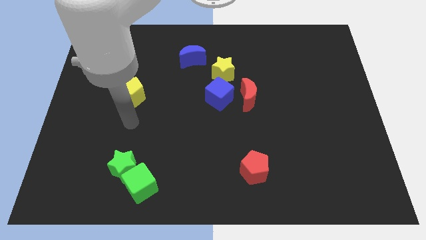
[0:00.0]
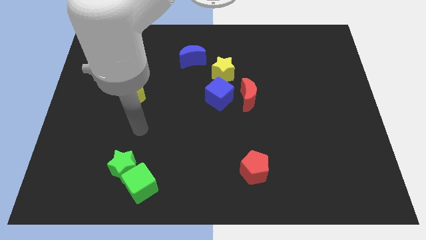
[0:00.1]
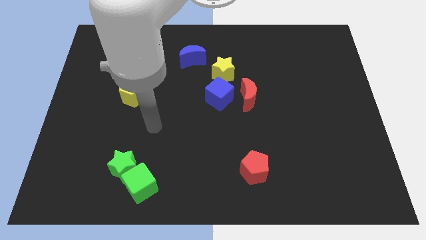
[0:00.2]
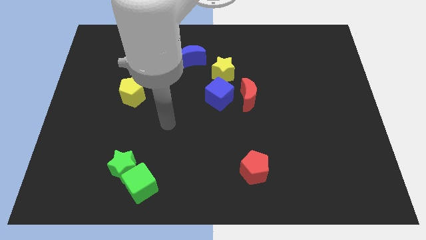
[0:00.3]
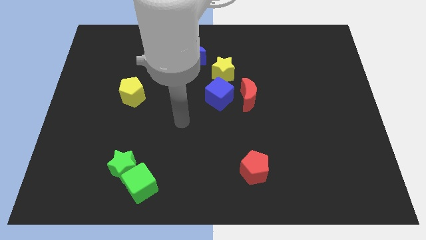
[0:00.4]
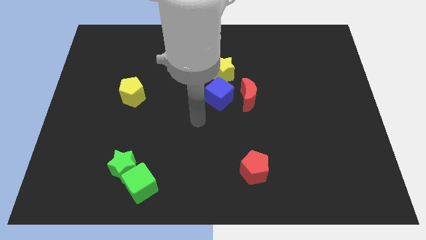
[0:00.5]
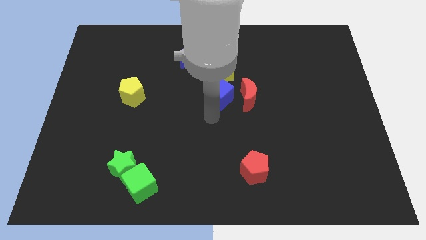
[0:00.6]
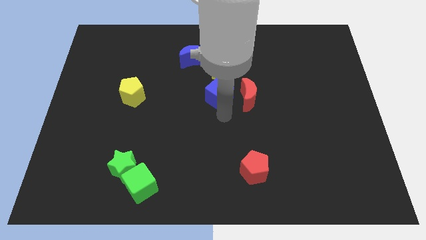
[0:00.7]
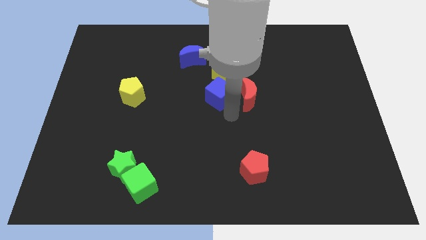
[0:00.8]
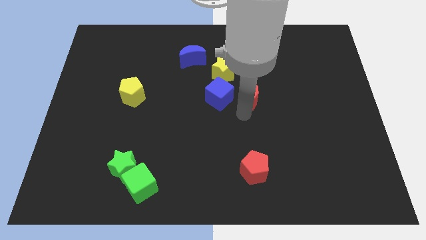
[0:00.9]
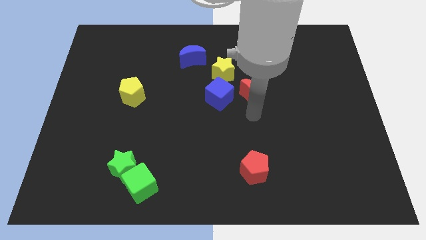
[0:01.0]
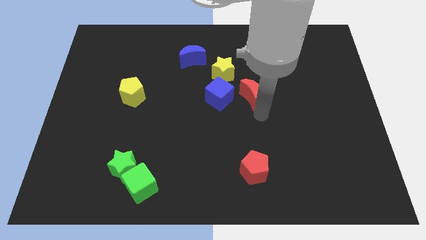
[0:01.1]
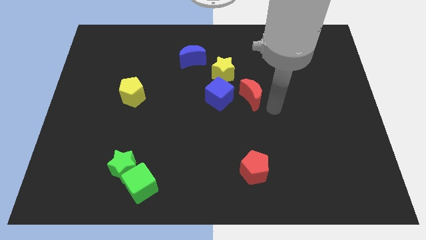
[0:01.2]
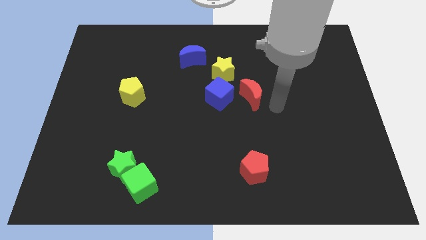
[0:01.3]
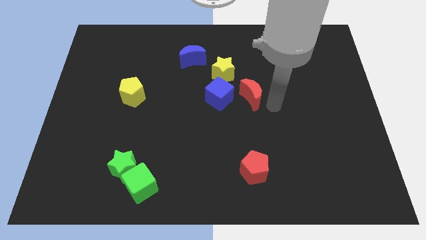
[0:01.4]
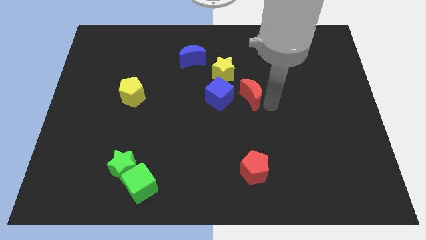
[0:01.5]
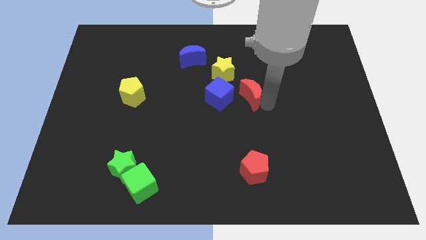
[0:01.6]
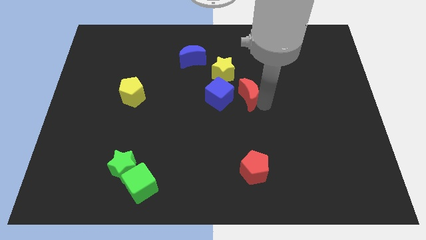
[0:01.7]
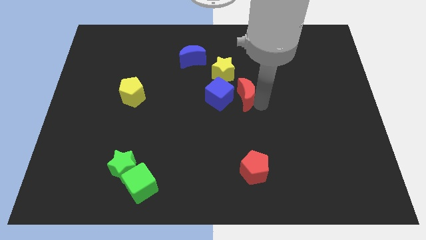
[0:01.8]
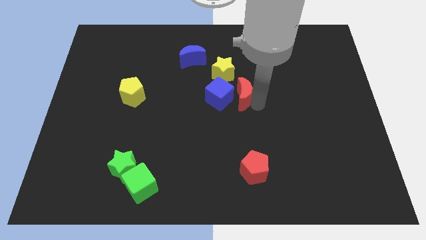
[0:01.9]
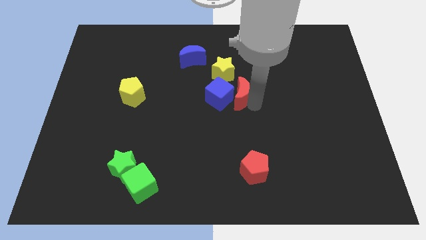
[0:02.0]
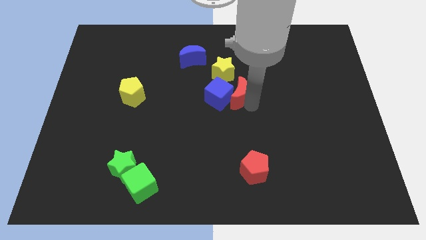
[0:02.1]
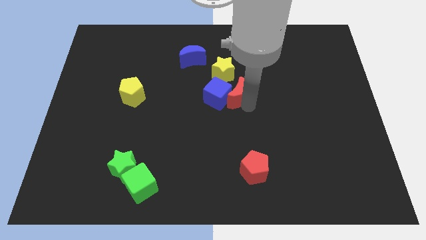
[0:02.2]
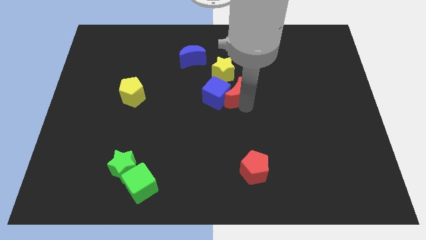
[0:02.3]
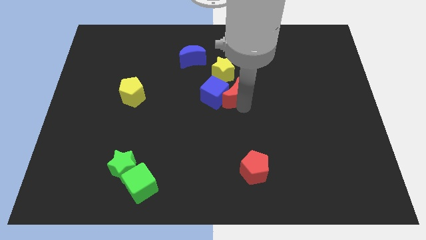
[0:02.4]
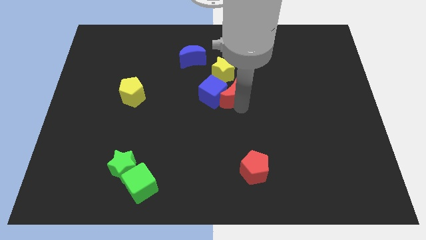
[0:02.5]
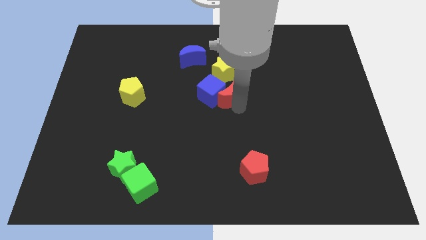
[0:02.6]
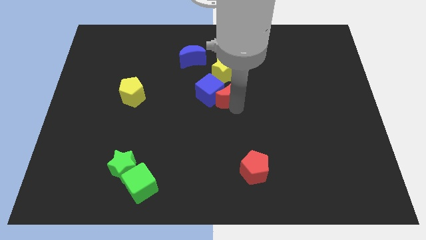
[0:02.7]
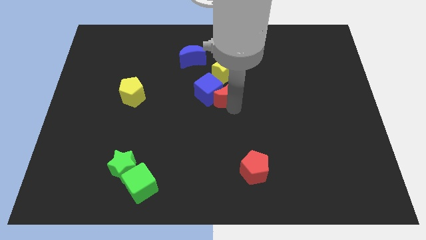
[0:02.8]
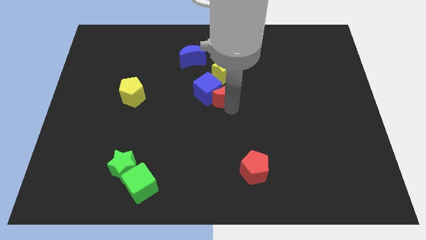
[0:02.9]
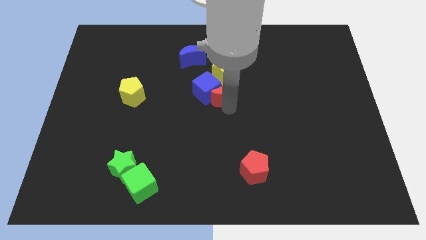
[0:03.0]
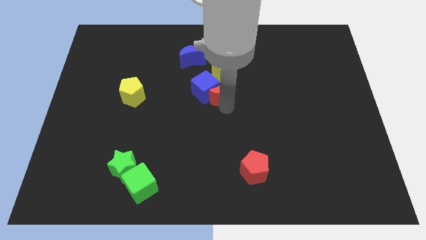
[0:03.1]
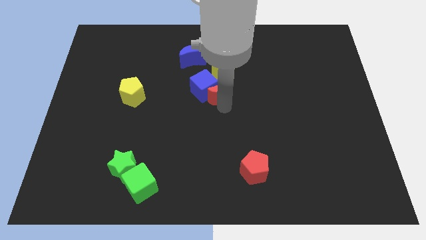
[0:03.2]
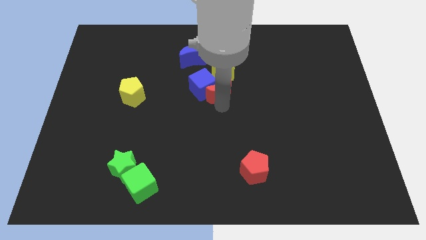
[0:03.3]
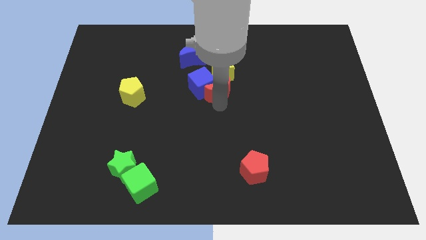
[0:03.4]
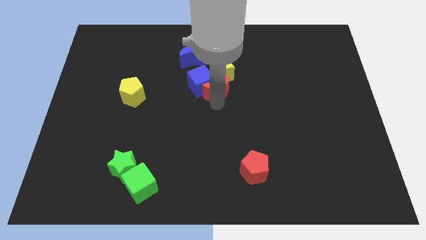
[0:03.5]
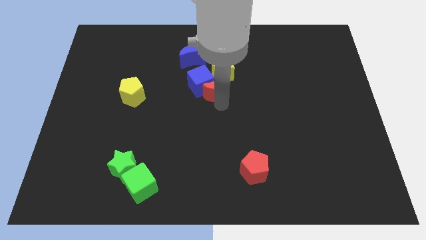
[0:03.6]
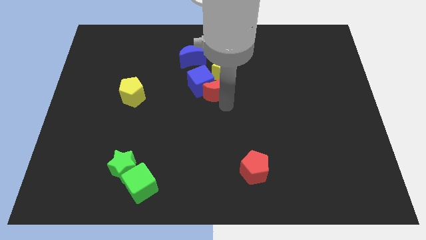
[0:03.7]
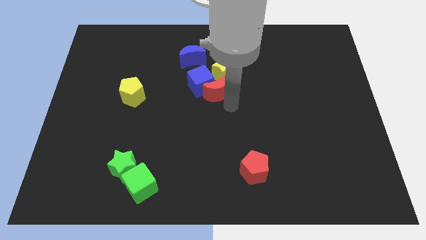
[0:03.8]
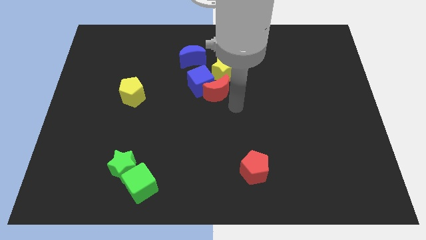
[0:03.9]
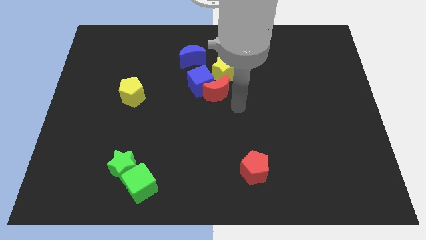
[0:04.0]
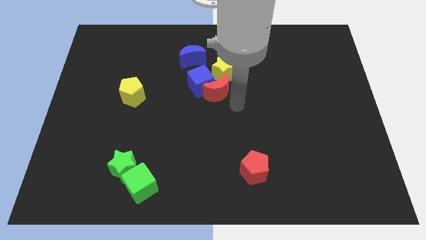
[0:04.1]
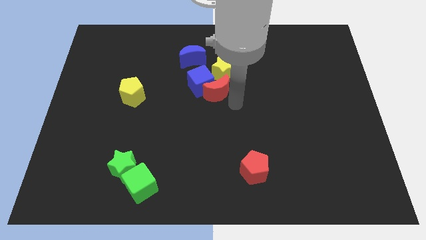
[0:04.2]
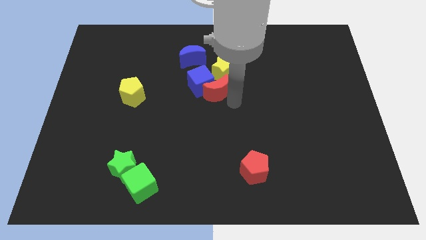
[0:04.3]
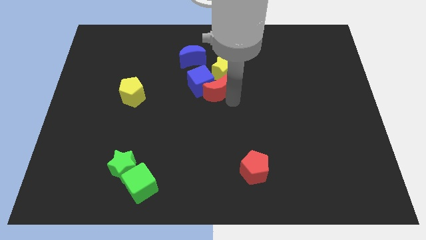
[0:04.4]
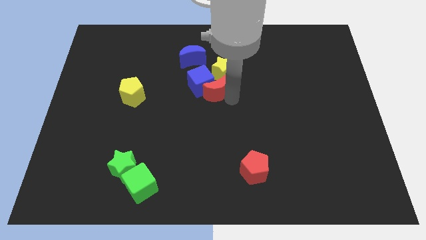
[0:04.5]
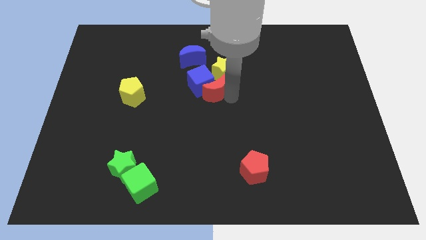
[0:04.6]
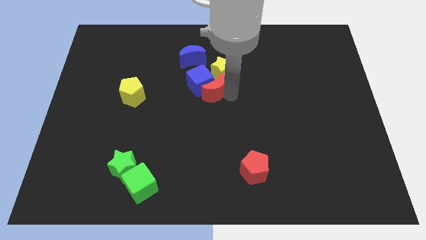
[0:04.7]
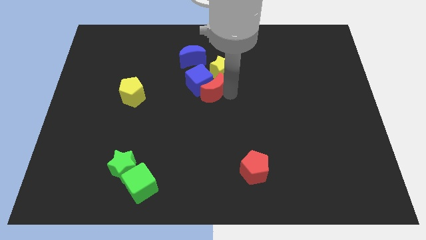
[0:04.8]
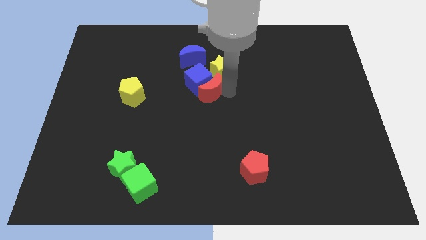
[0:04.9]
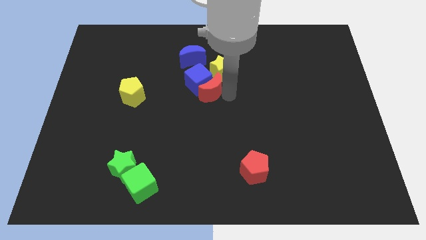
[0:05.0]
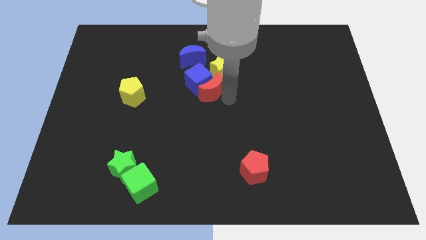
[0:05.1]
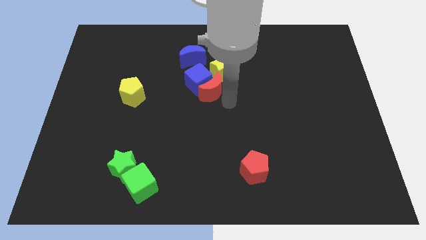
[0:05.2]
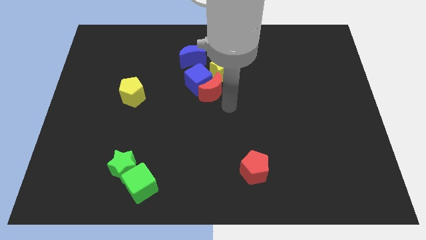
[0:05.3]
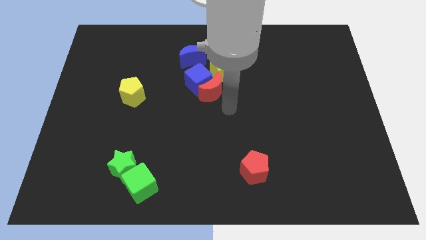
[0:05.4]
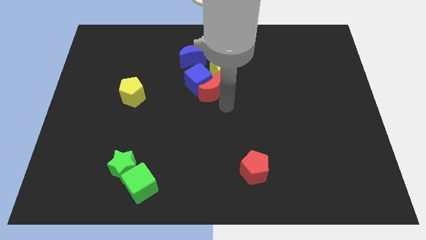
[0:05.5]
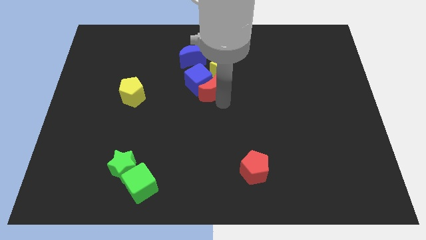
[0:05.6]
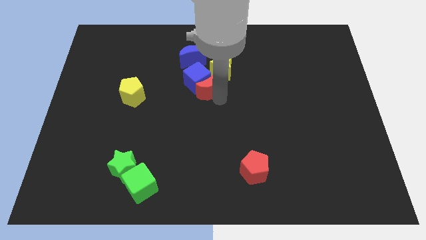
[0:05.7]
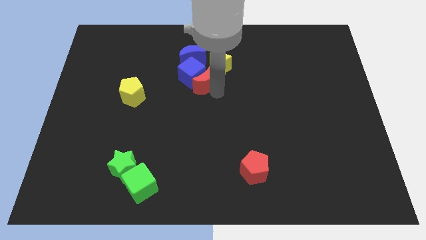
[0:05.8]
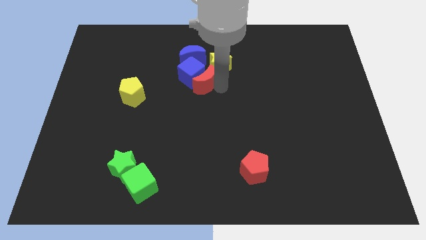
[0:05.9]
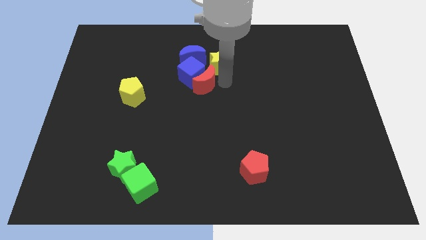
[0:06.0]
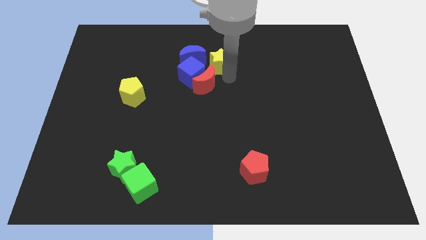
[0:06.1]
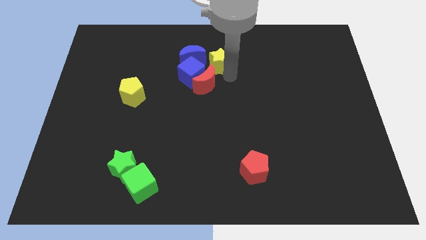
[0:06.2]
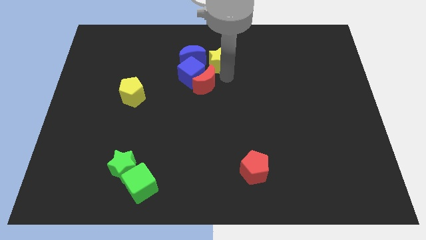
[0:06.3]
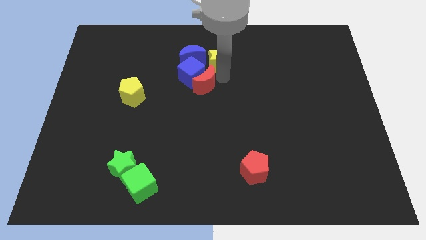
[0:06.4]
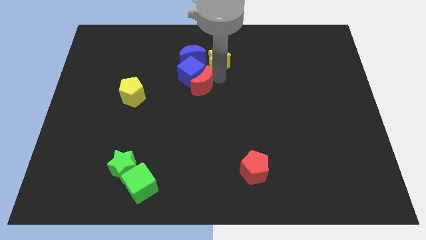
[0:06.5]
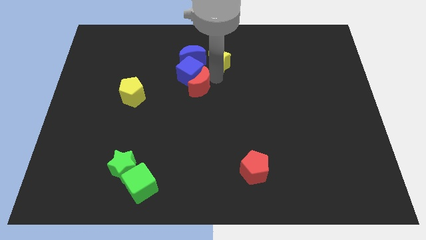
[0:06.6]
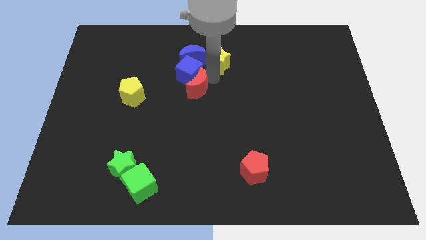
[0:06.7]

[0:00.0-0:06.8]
push the red moon to the right side of the yellow pentagon

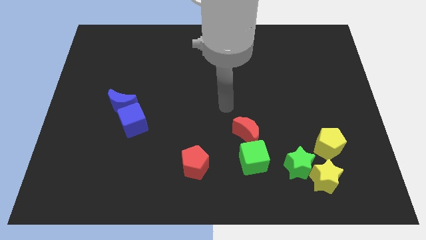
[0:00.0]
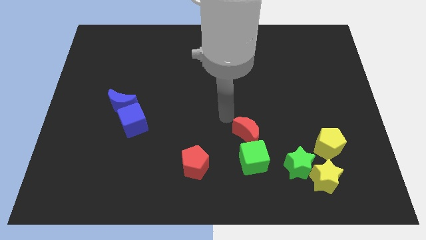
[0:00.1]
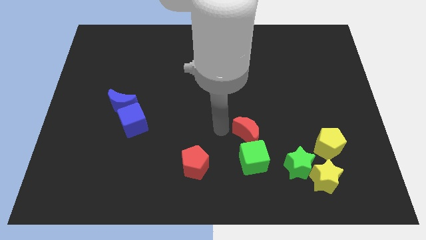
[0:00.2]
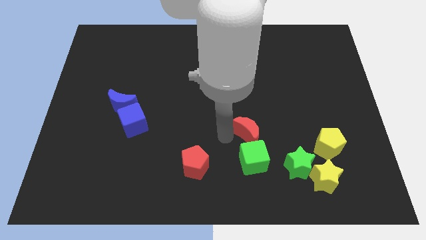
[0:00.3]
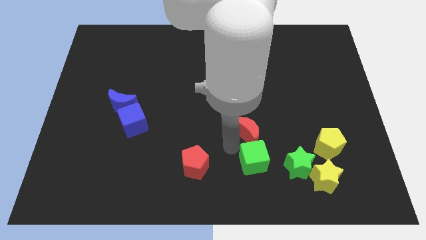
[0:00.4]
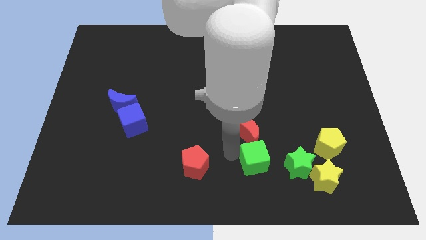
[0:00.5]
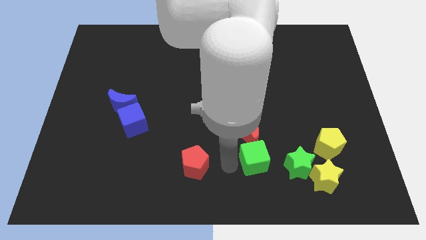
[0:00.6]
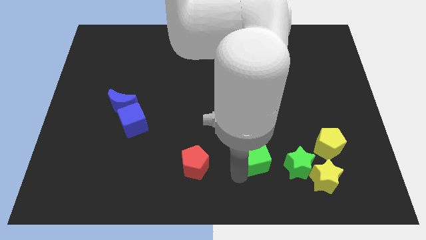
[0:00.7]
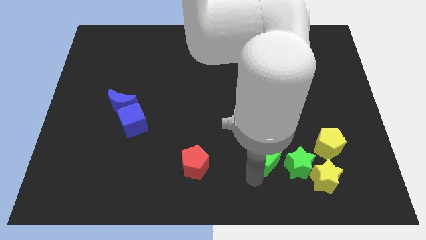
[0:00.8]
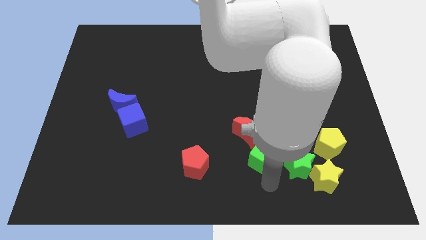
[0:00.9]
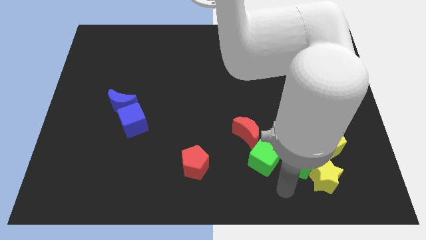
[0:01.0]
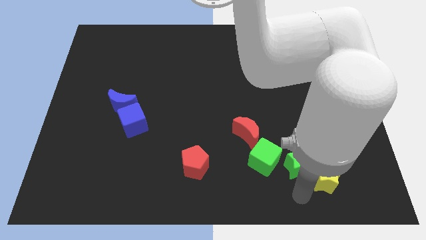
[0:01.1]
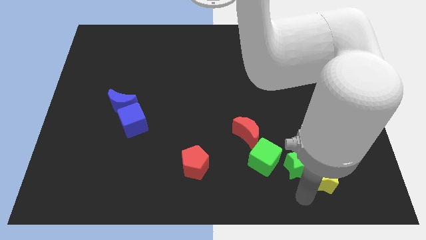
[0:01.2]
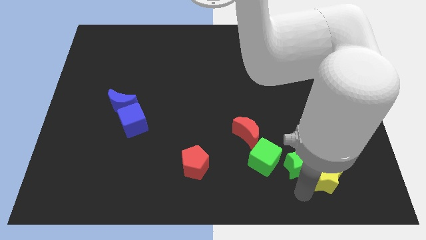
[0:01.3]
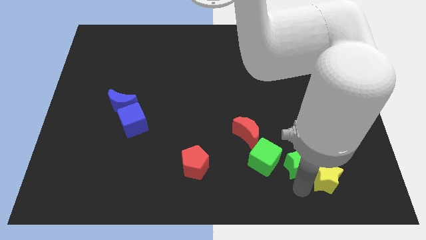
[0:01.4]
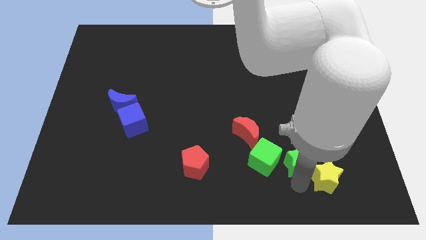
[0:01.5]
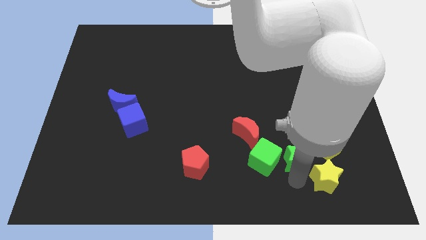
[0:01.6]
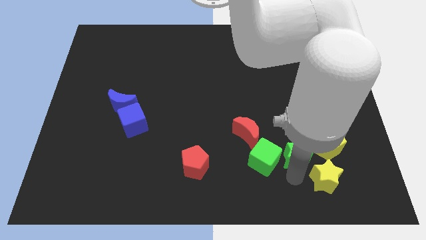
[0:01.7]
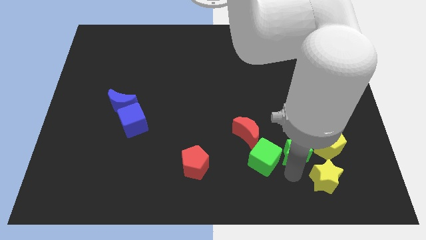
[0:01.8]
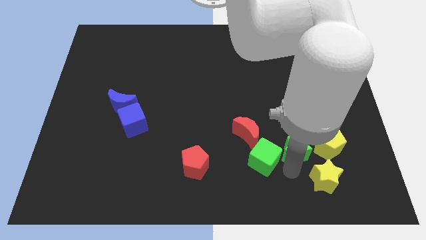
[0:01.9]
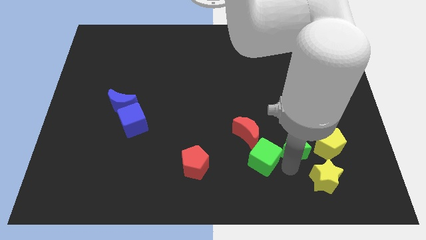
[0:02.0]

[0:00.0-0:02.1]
slide the green star to the right of the red moon
